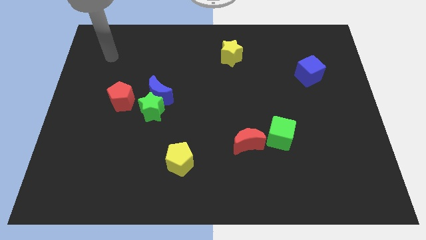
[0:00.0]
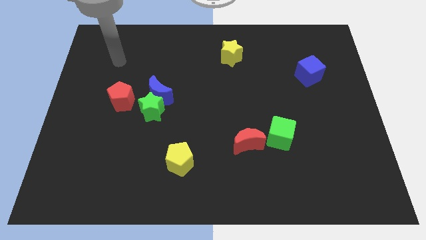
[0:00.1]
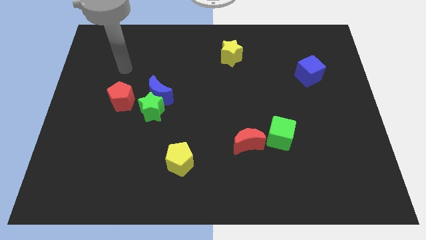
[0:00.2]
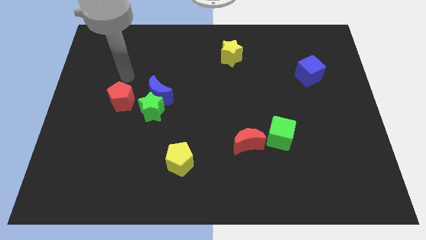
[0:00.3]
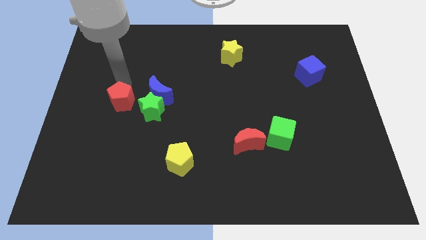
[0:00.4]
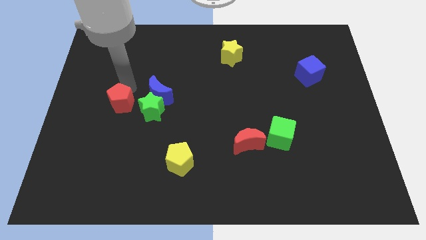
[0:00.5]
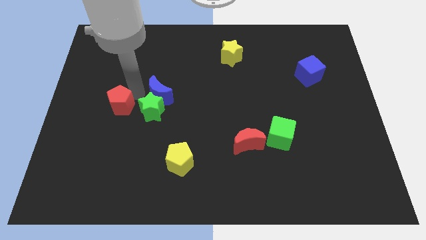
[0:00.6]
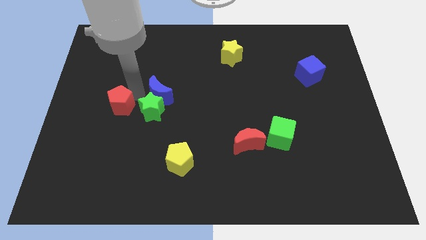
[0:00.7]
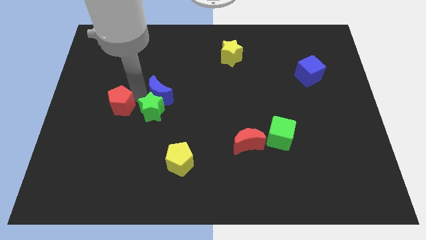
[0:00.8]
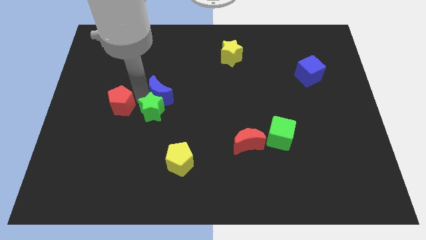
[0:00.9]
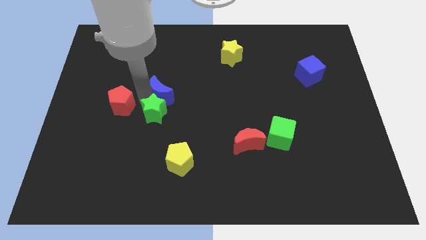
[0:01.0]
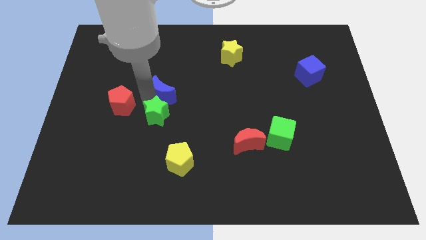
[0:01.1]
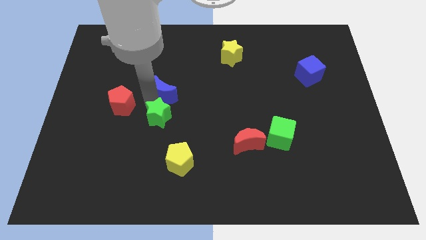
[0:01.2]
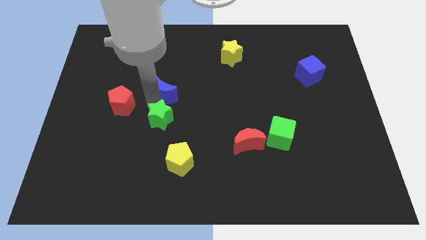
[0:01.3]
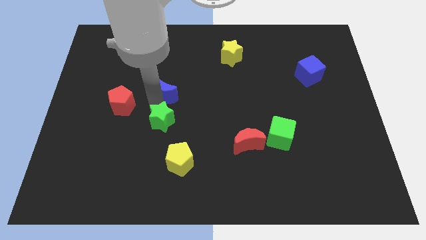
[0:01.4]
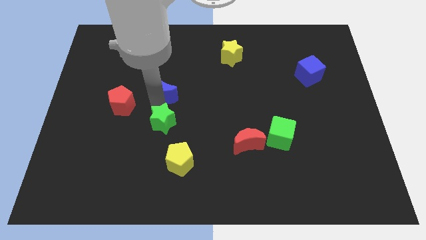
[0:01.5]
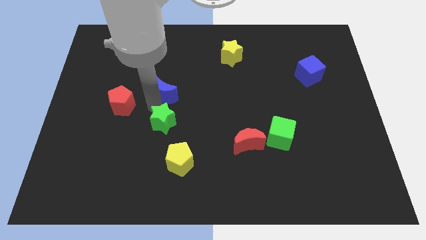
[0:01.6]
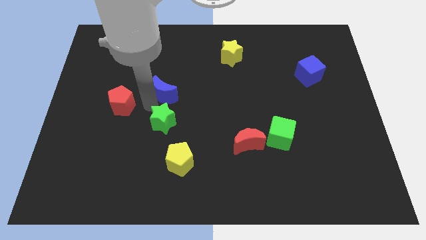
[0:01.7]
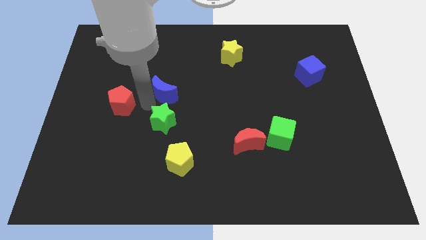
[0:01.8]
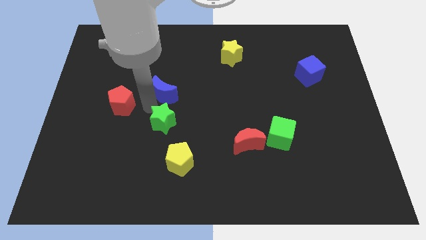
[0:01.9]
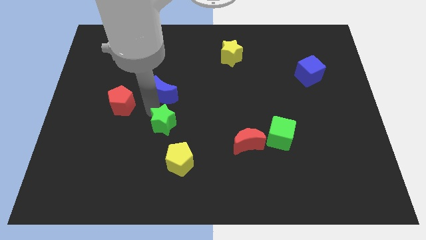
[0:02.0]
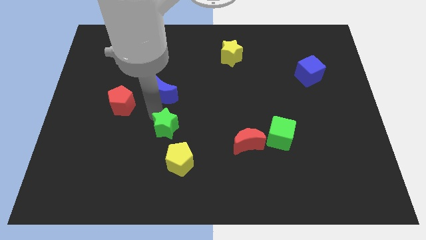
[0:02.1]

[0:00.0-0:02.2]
separate the green star from the blue moon and red pentagon

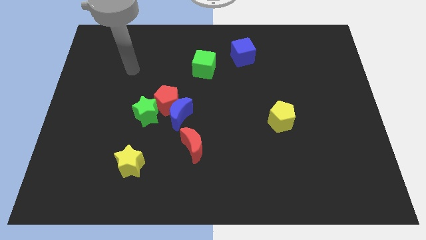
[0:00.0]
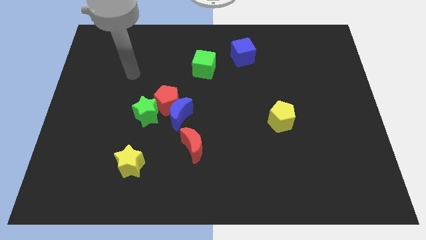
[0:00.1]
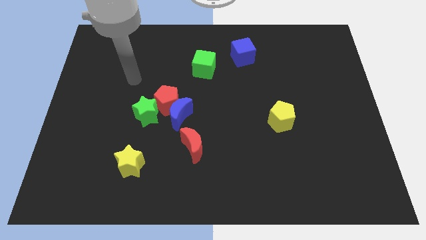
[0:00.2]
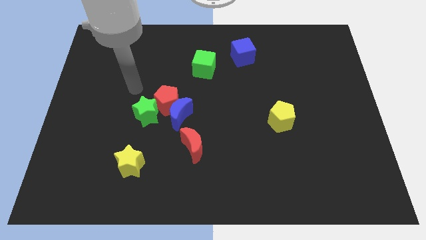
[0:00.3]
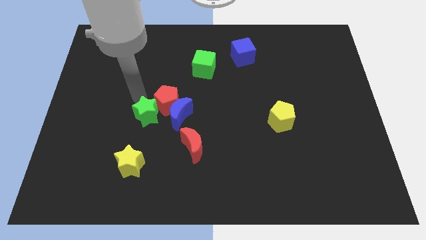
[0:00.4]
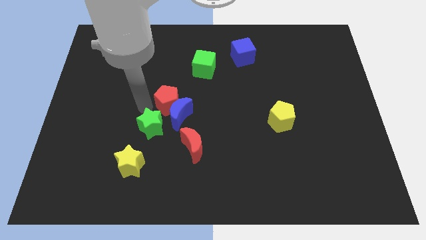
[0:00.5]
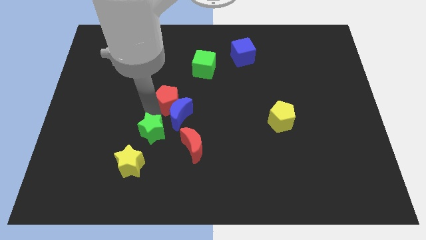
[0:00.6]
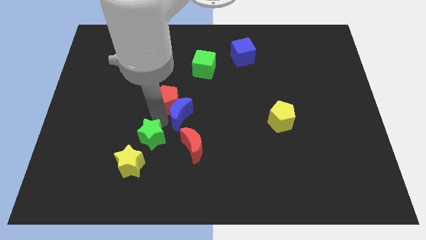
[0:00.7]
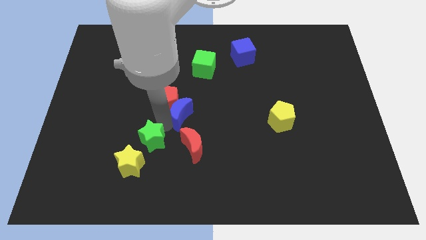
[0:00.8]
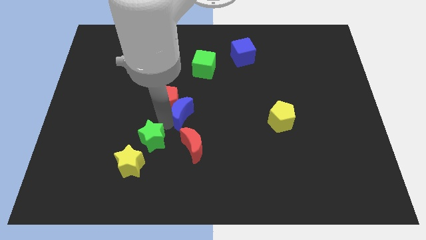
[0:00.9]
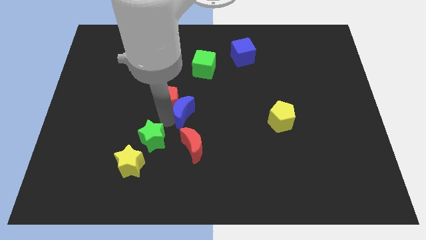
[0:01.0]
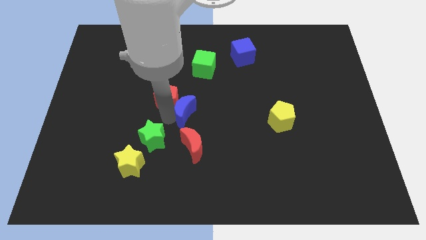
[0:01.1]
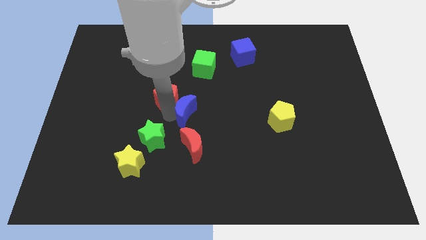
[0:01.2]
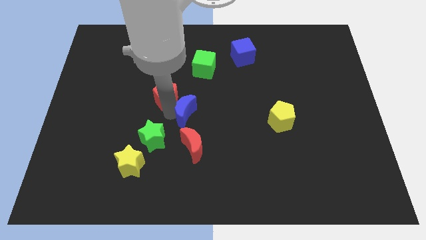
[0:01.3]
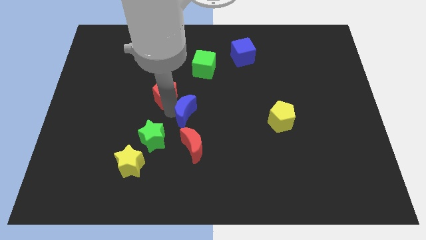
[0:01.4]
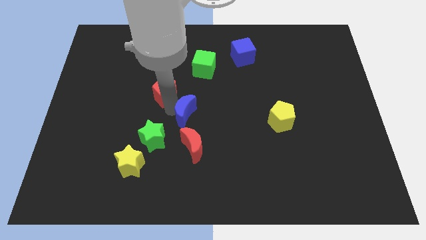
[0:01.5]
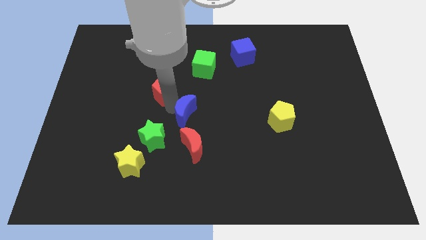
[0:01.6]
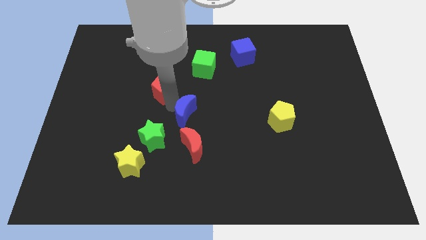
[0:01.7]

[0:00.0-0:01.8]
pull the red pentagon apart from the blue moon and green star

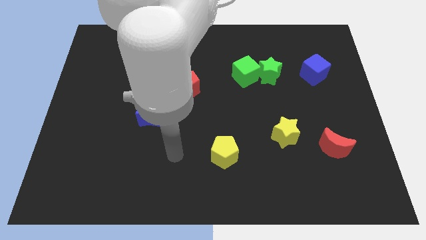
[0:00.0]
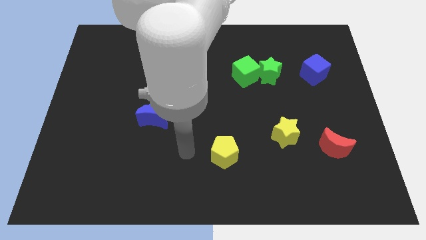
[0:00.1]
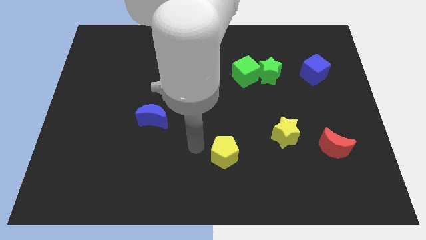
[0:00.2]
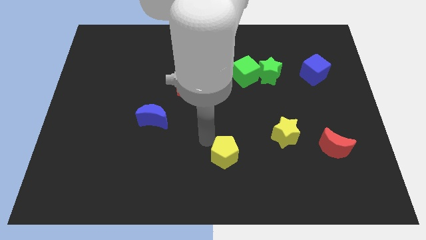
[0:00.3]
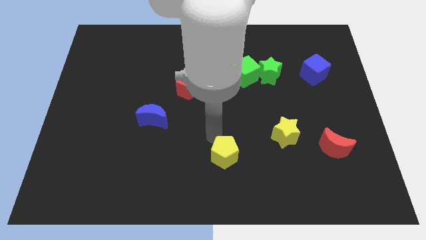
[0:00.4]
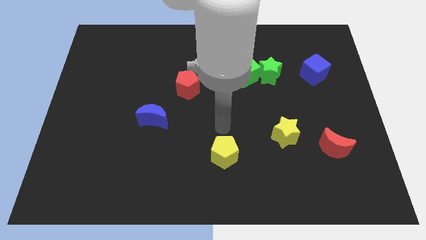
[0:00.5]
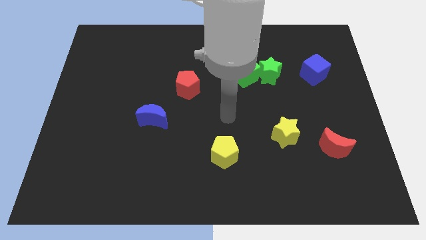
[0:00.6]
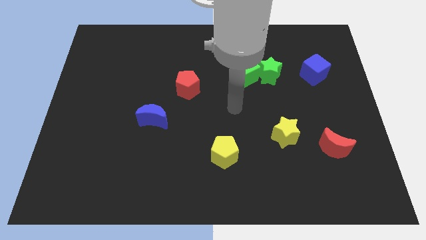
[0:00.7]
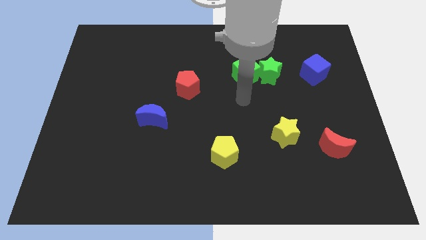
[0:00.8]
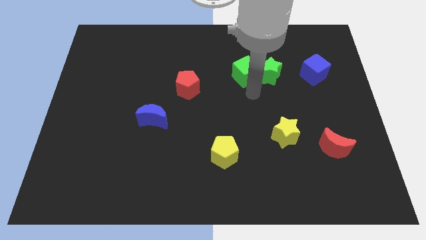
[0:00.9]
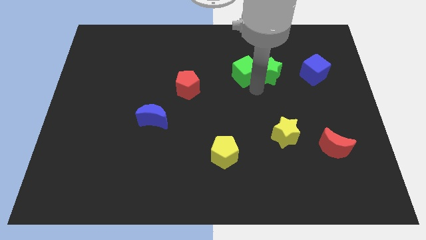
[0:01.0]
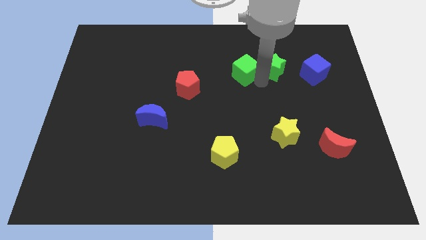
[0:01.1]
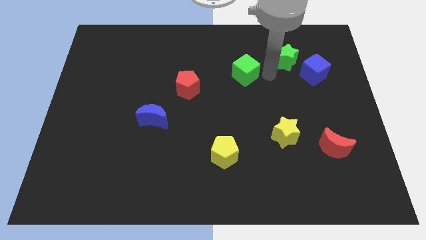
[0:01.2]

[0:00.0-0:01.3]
separate the green cube from the green star

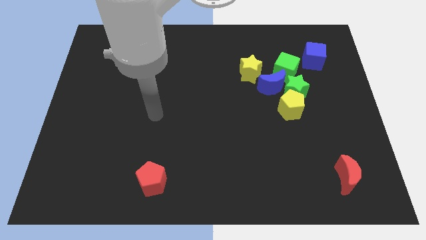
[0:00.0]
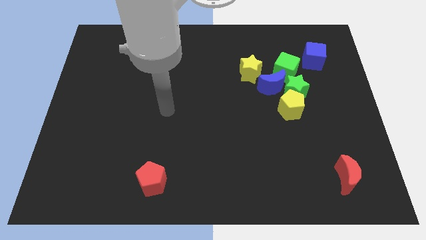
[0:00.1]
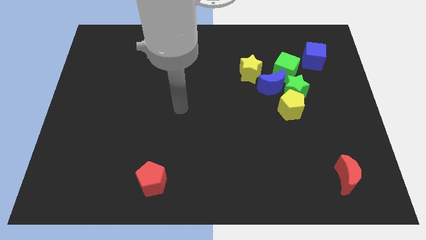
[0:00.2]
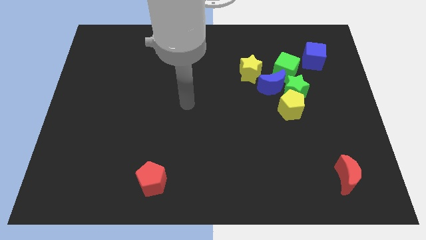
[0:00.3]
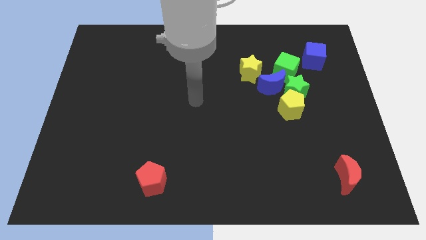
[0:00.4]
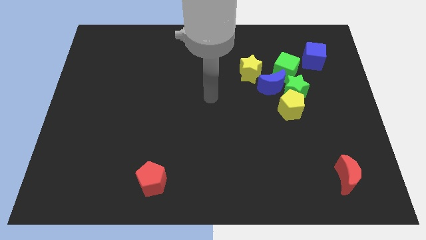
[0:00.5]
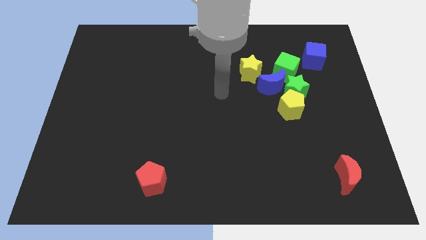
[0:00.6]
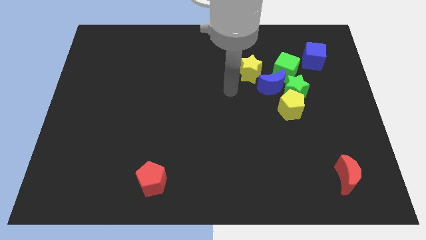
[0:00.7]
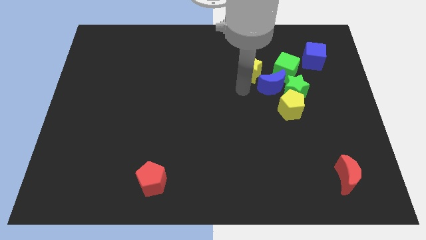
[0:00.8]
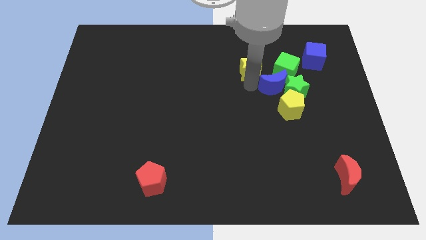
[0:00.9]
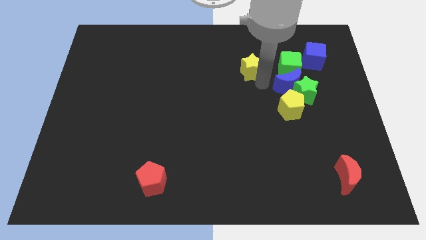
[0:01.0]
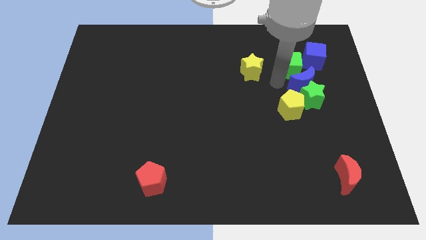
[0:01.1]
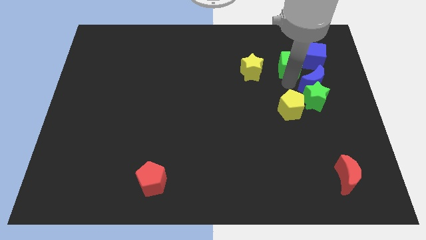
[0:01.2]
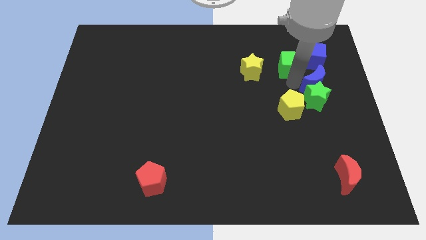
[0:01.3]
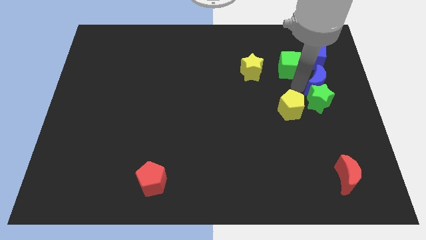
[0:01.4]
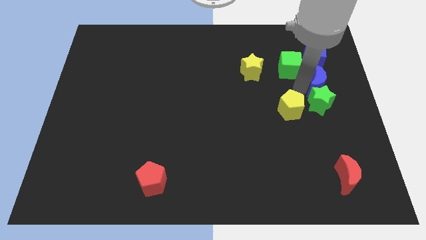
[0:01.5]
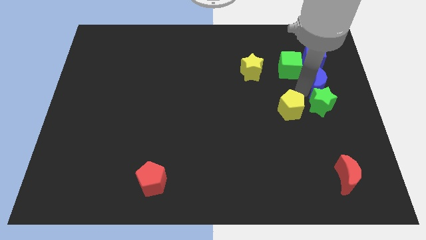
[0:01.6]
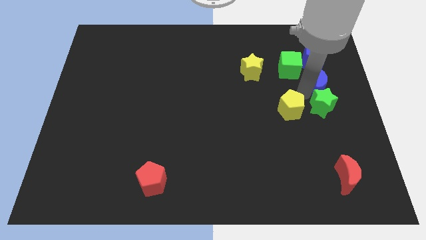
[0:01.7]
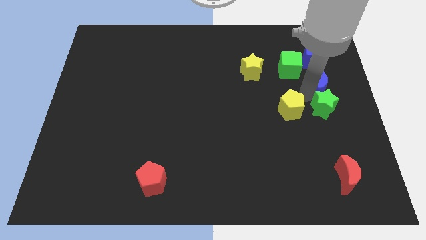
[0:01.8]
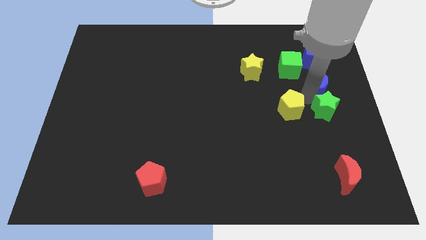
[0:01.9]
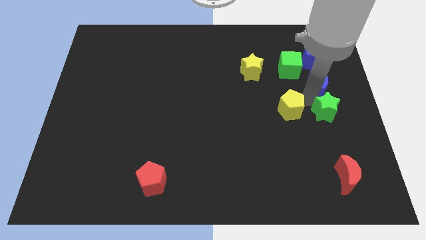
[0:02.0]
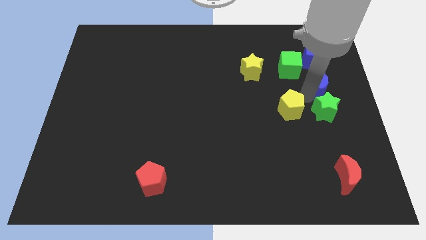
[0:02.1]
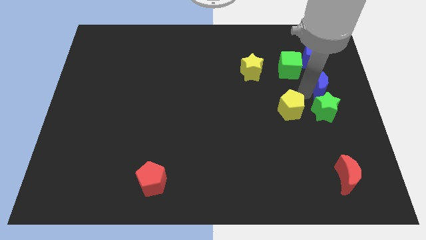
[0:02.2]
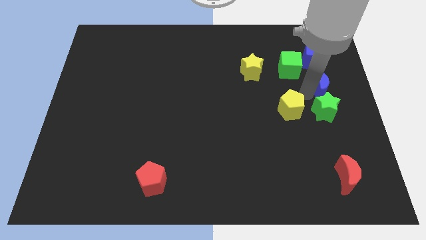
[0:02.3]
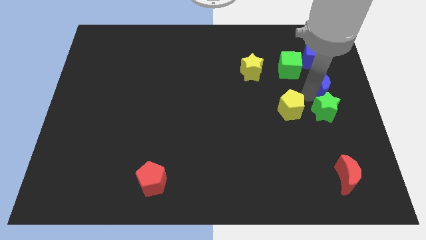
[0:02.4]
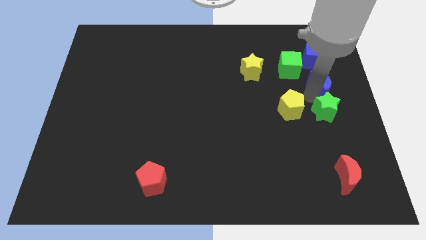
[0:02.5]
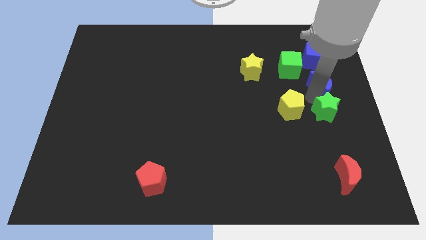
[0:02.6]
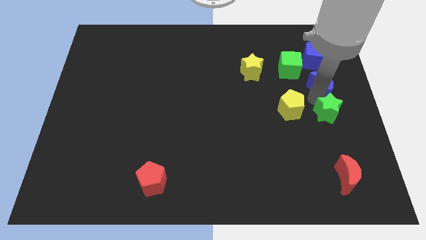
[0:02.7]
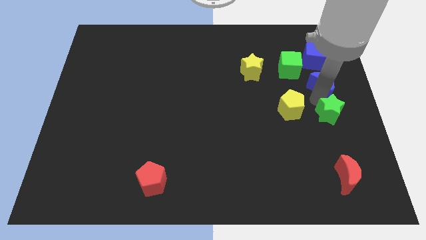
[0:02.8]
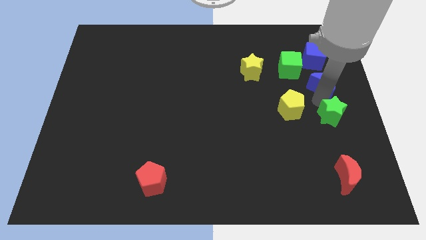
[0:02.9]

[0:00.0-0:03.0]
move the green star away from the clump

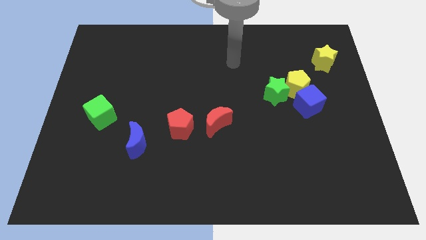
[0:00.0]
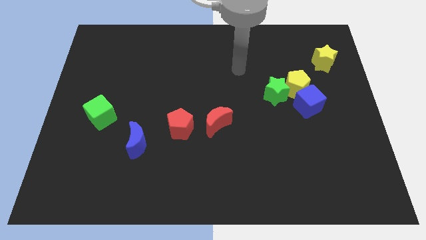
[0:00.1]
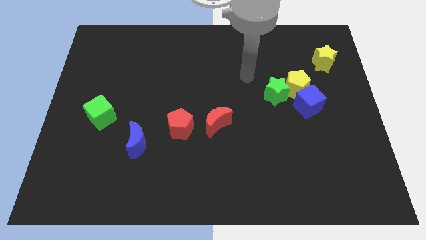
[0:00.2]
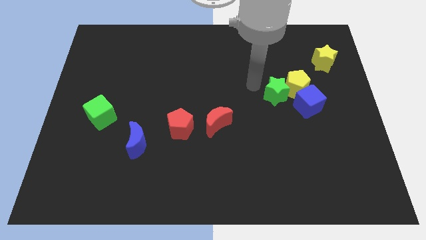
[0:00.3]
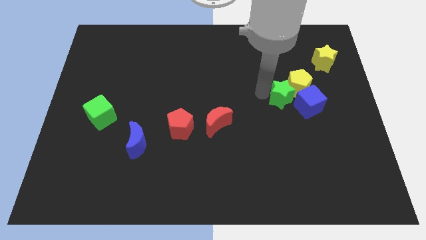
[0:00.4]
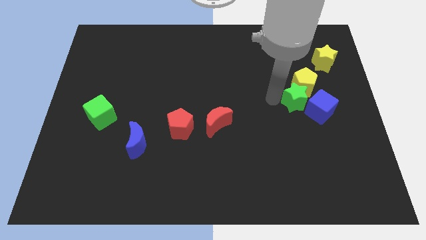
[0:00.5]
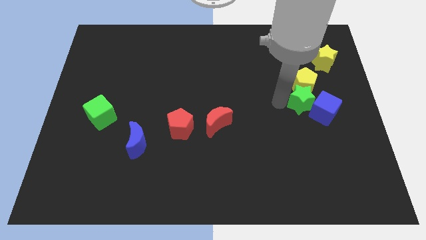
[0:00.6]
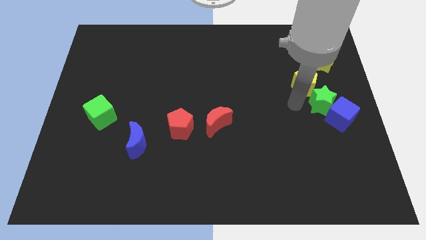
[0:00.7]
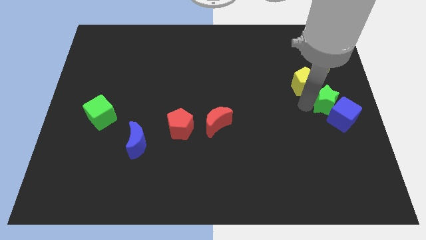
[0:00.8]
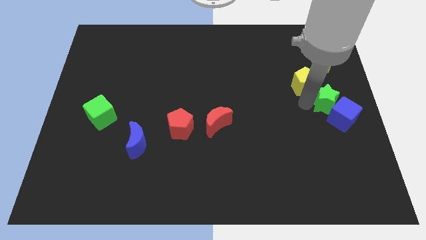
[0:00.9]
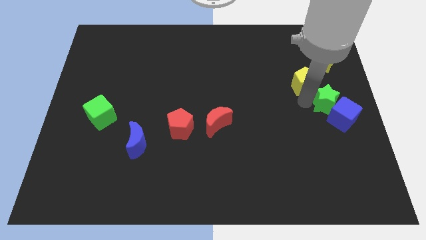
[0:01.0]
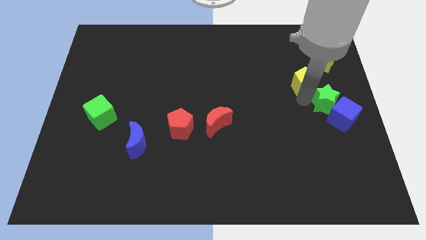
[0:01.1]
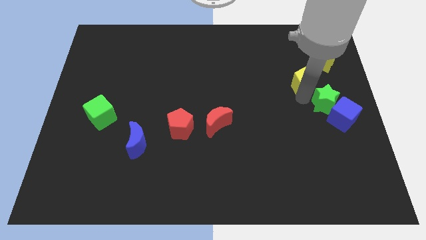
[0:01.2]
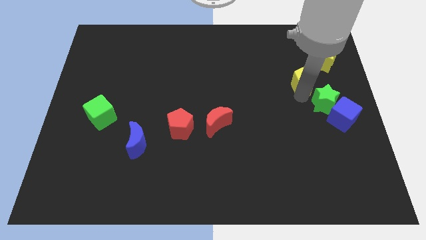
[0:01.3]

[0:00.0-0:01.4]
separate the yellow pentagon from the green star and blue cube
